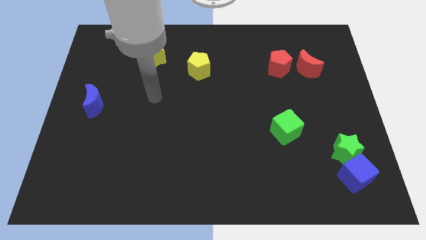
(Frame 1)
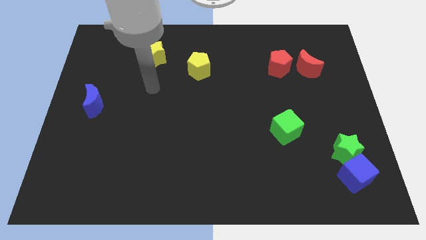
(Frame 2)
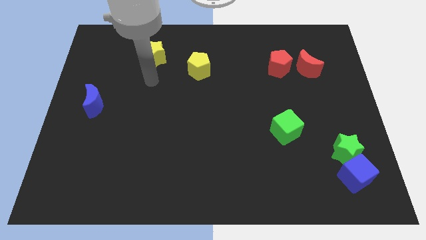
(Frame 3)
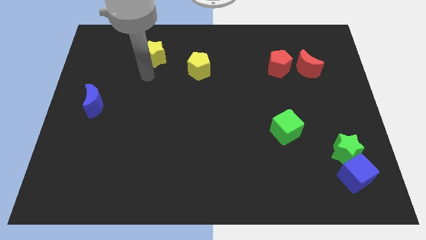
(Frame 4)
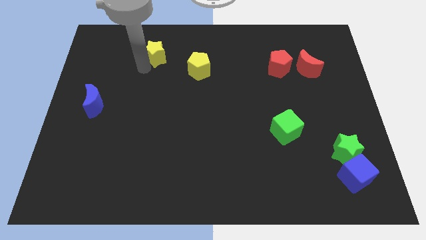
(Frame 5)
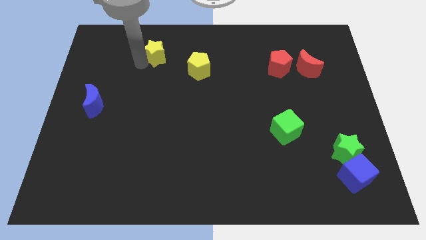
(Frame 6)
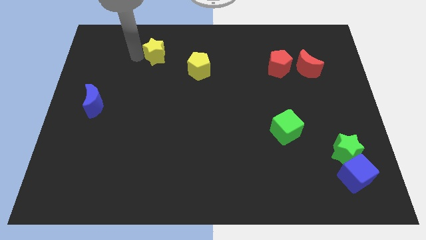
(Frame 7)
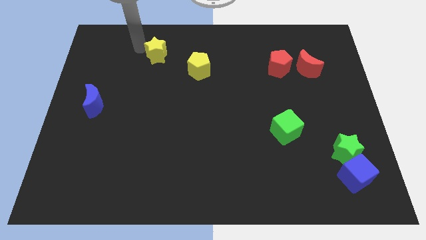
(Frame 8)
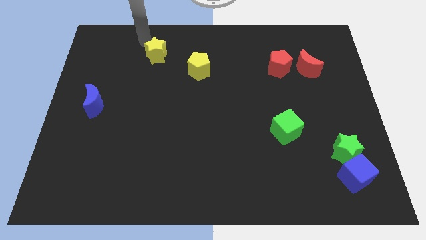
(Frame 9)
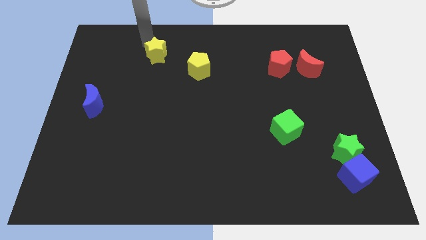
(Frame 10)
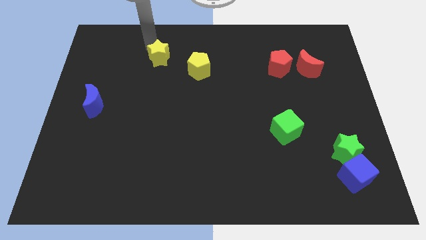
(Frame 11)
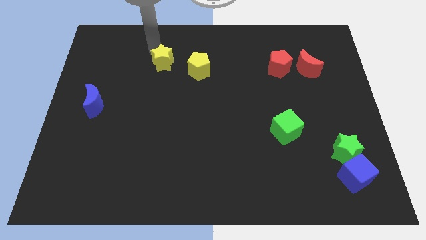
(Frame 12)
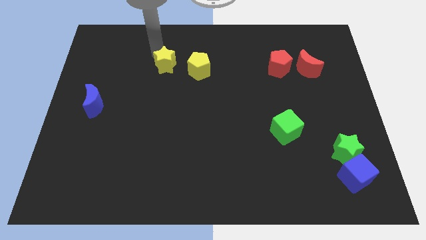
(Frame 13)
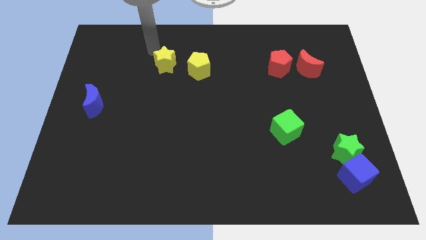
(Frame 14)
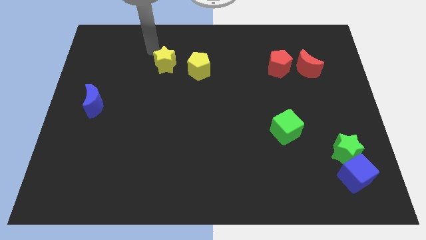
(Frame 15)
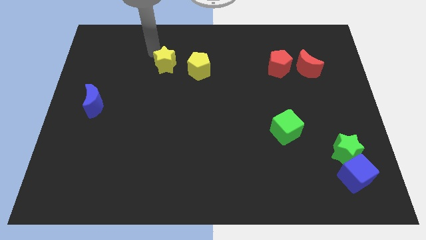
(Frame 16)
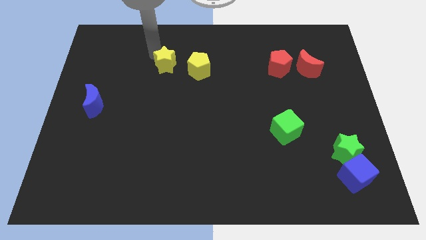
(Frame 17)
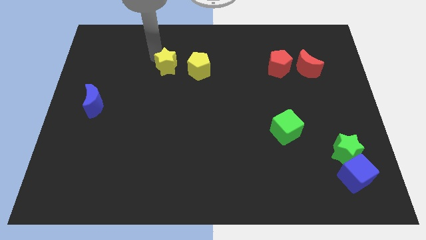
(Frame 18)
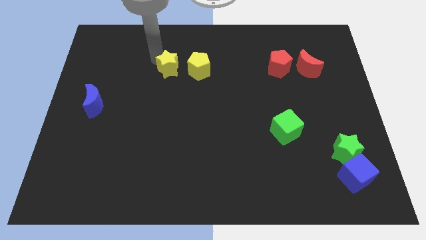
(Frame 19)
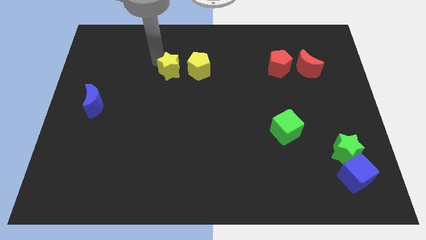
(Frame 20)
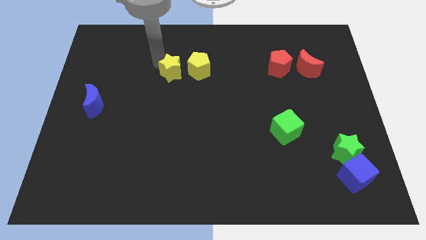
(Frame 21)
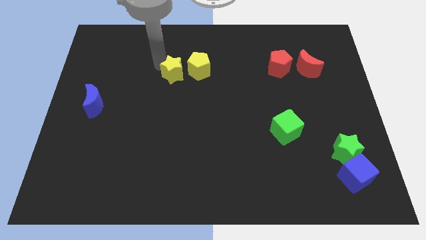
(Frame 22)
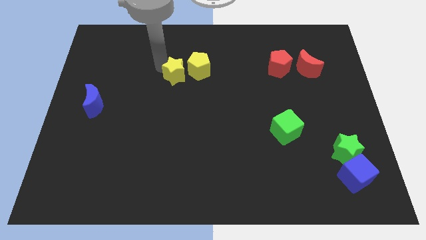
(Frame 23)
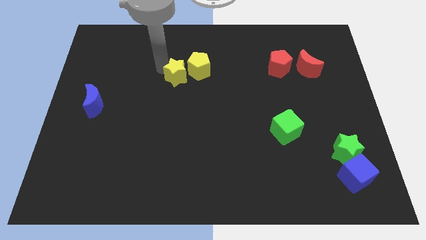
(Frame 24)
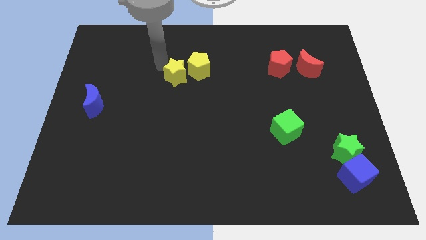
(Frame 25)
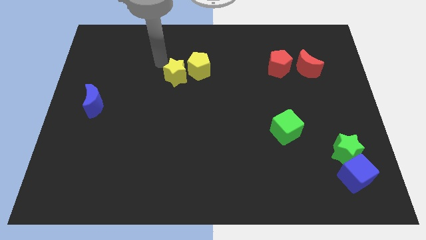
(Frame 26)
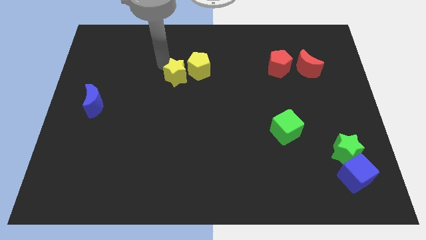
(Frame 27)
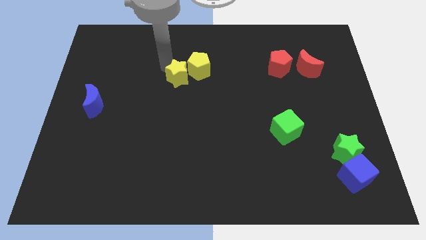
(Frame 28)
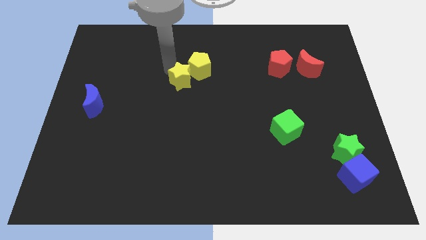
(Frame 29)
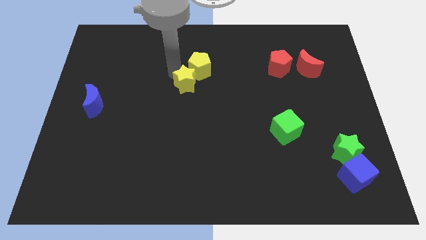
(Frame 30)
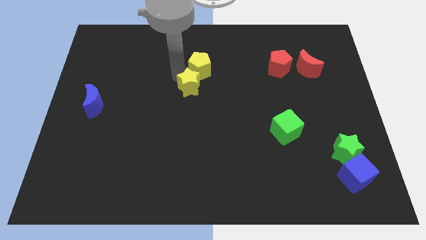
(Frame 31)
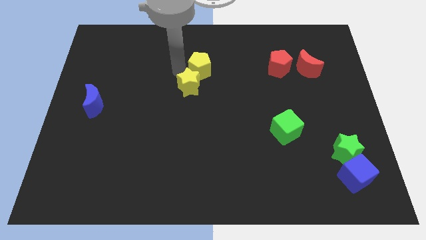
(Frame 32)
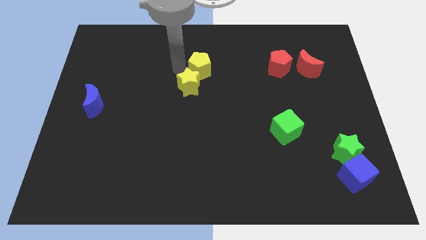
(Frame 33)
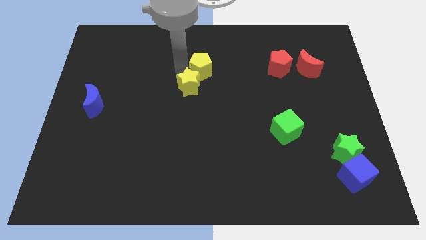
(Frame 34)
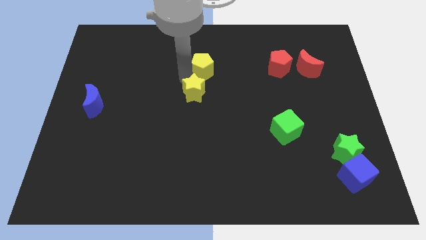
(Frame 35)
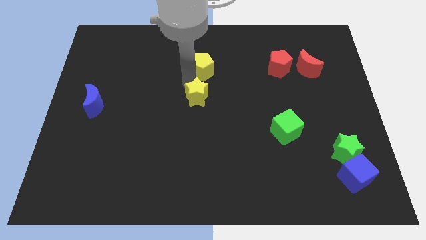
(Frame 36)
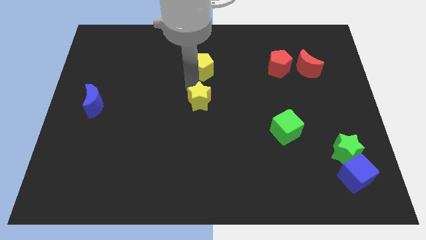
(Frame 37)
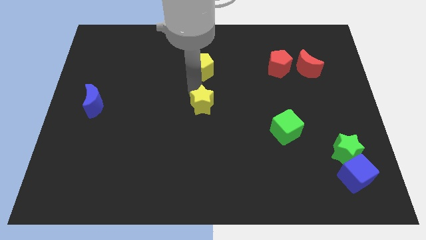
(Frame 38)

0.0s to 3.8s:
slide the yellow star downwards and to the right diagonally

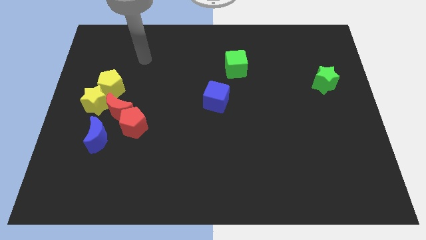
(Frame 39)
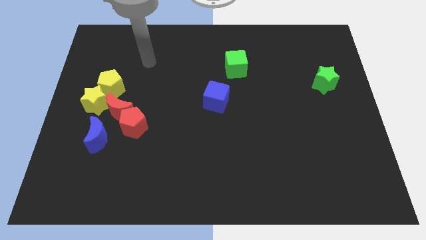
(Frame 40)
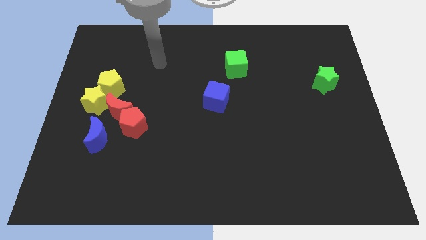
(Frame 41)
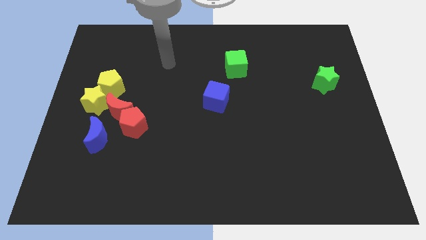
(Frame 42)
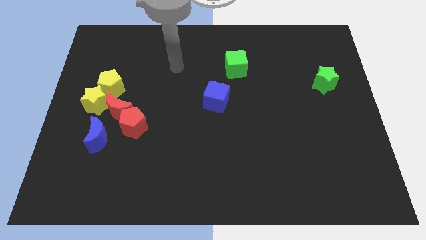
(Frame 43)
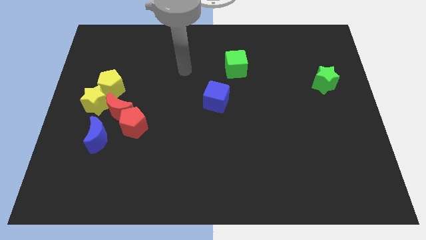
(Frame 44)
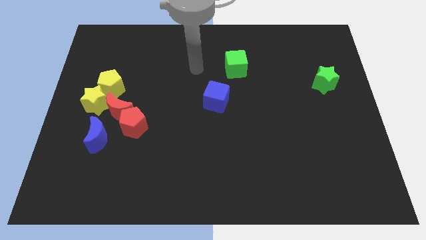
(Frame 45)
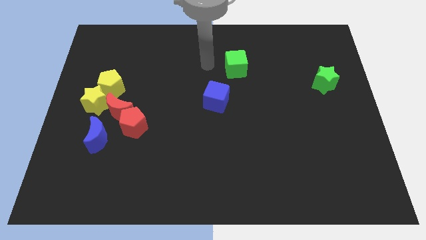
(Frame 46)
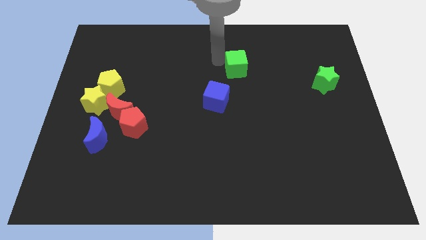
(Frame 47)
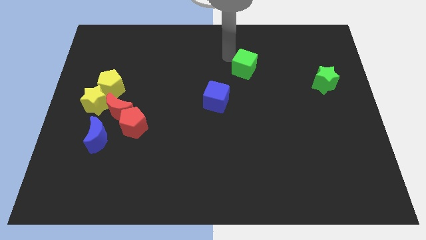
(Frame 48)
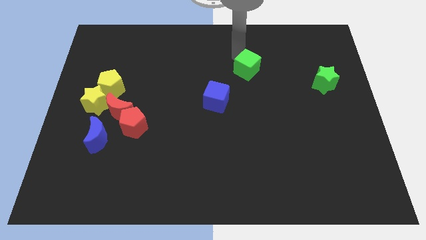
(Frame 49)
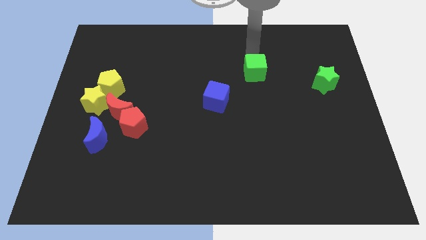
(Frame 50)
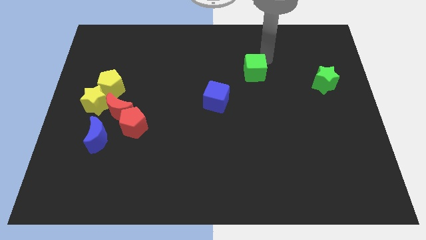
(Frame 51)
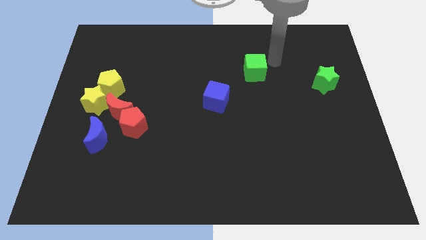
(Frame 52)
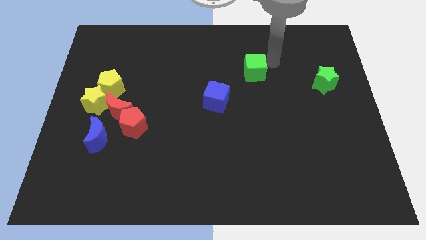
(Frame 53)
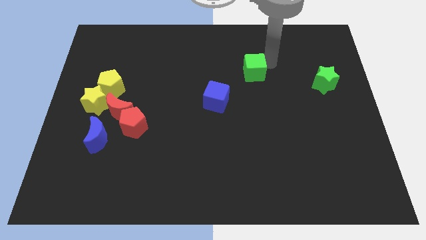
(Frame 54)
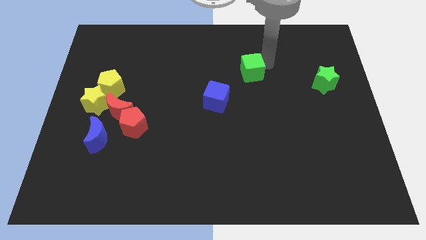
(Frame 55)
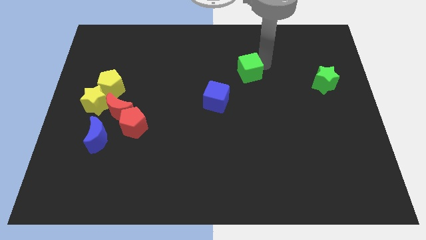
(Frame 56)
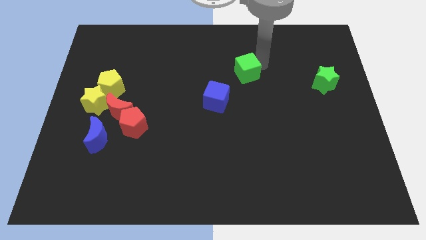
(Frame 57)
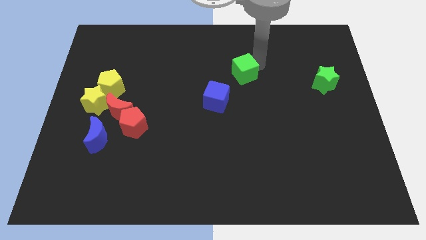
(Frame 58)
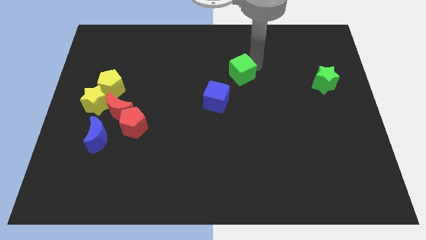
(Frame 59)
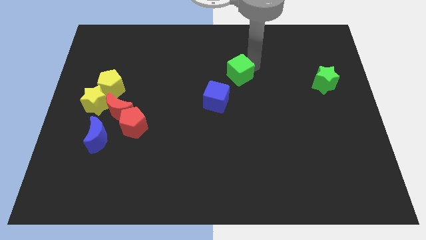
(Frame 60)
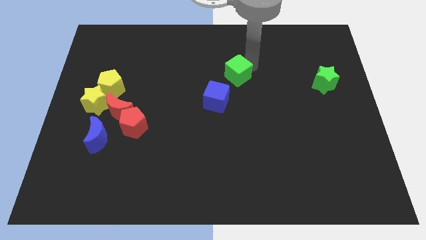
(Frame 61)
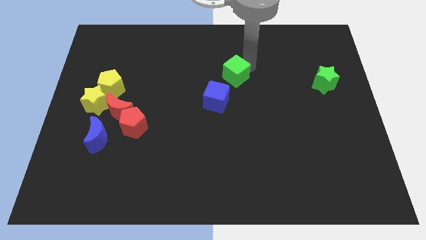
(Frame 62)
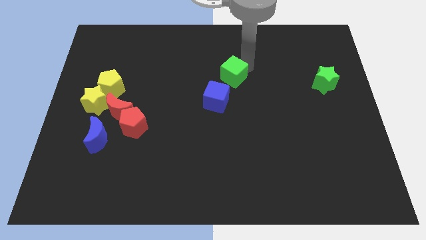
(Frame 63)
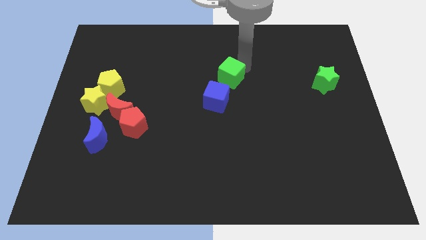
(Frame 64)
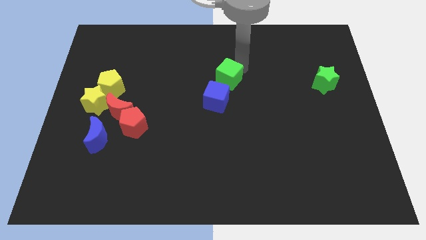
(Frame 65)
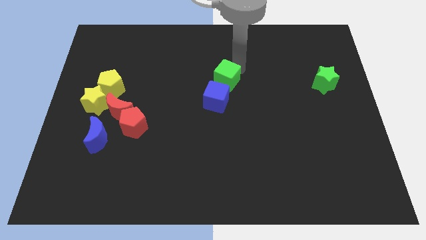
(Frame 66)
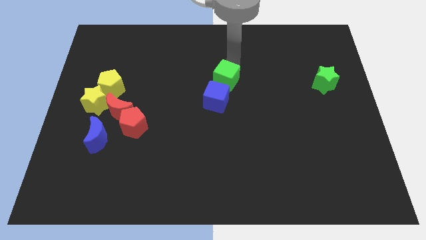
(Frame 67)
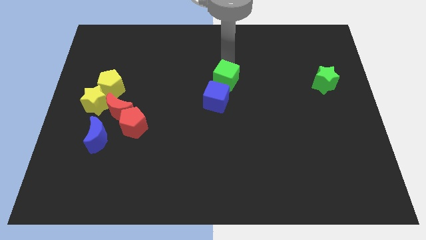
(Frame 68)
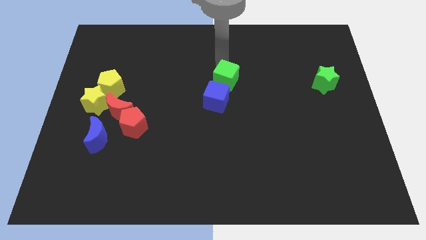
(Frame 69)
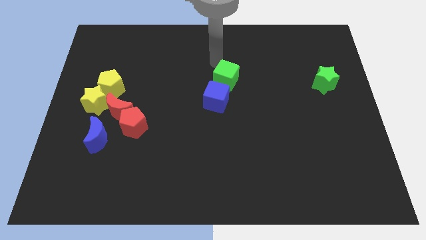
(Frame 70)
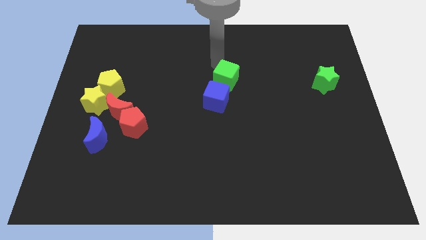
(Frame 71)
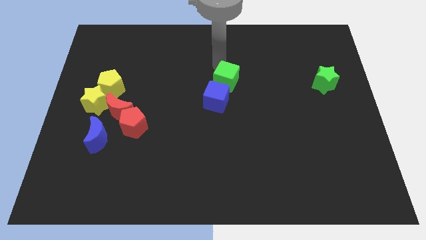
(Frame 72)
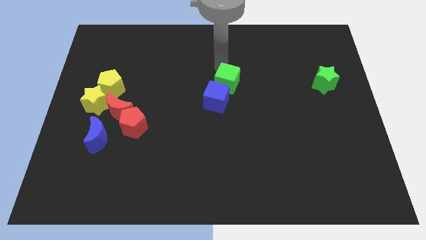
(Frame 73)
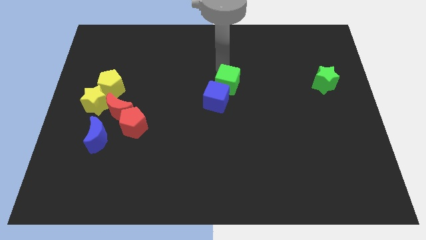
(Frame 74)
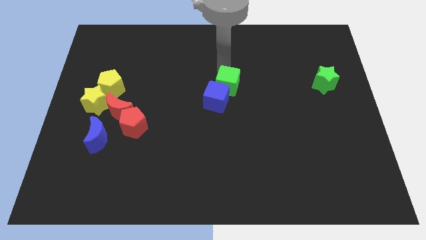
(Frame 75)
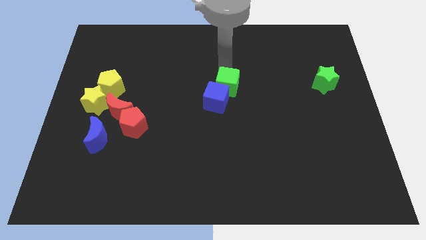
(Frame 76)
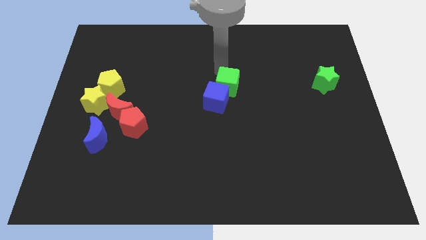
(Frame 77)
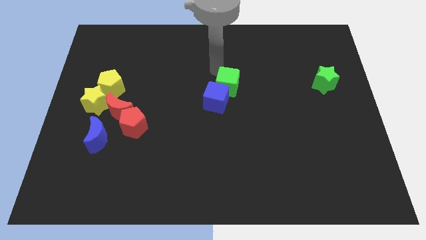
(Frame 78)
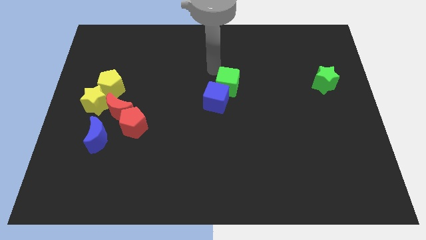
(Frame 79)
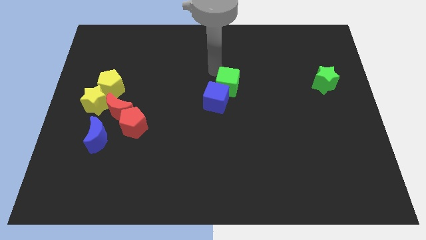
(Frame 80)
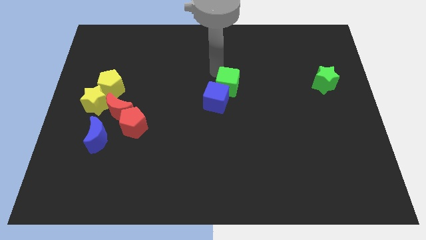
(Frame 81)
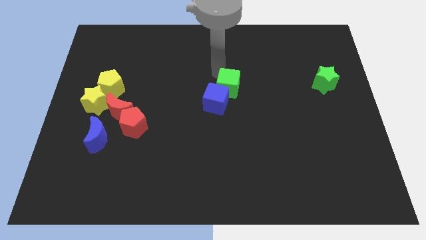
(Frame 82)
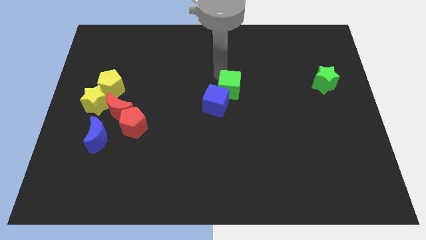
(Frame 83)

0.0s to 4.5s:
slightly slide the green cube downwards
